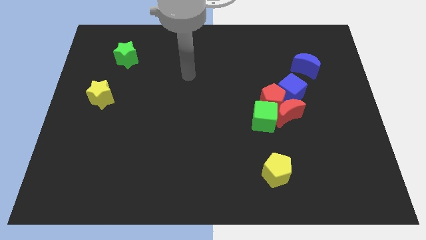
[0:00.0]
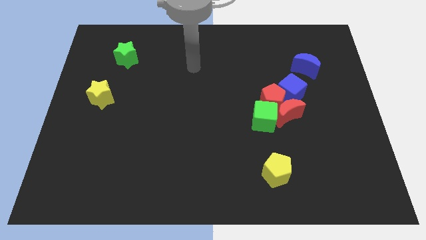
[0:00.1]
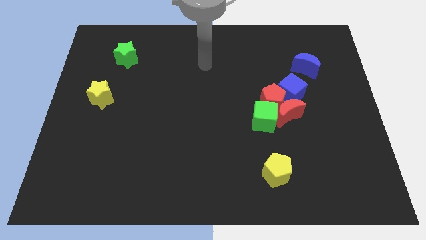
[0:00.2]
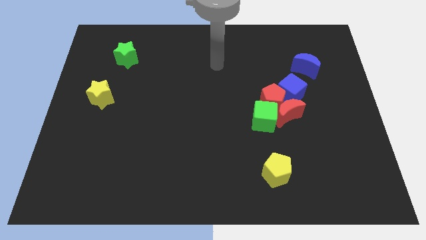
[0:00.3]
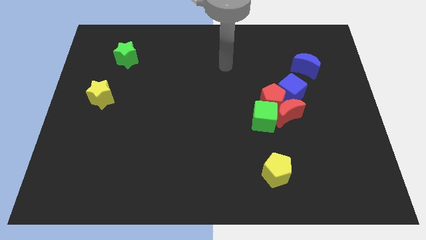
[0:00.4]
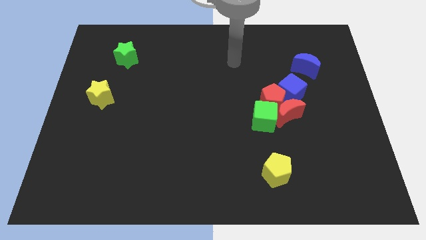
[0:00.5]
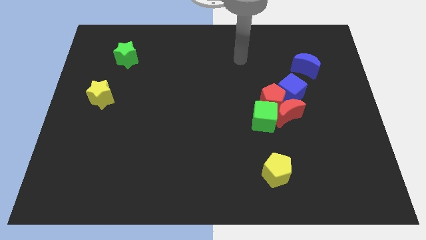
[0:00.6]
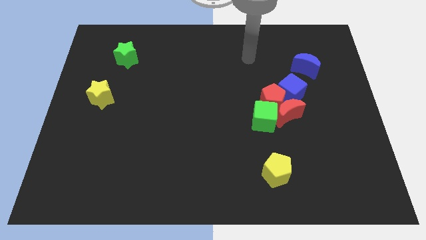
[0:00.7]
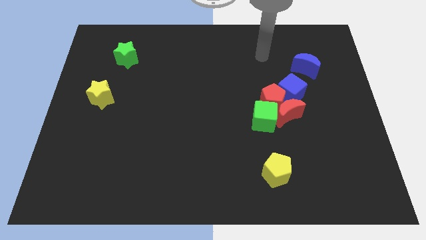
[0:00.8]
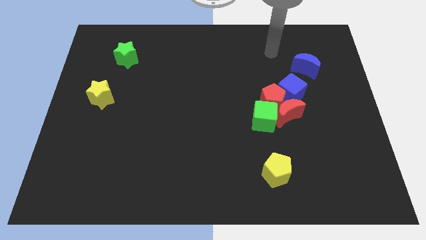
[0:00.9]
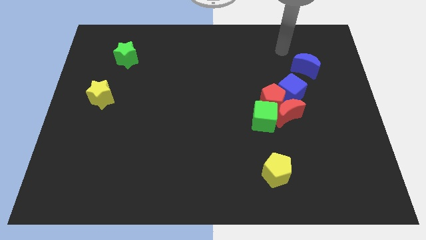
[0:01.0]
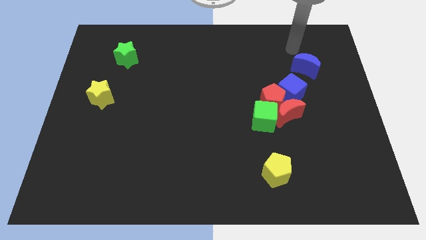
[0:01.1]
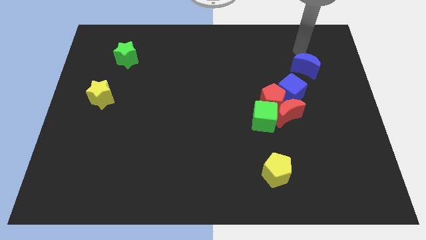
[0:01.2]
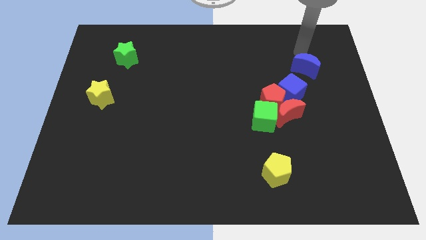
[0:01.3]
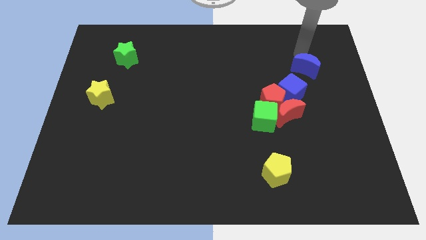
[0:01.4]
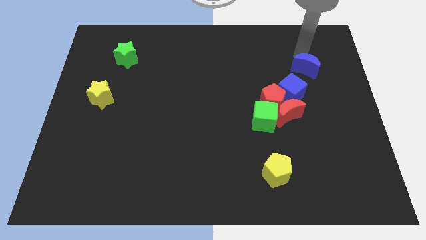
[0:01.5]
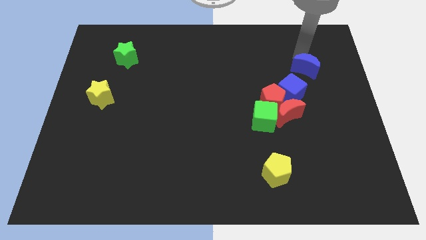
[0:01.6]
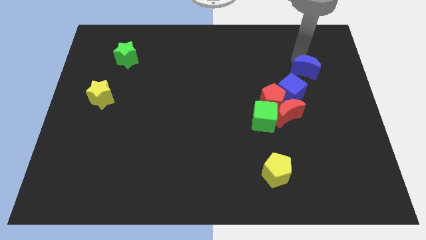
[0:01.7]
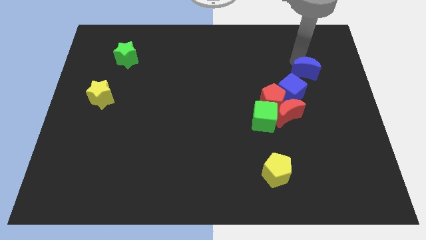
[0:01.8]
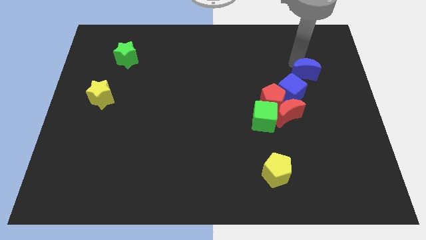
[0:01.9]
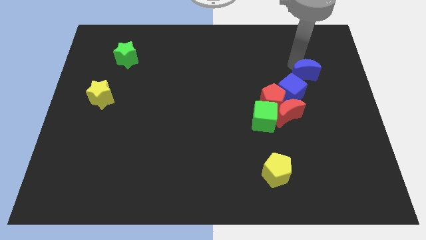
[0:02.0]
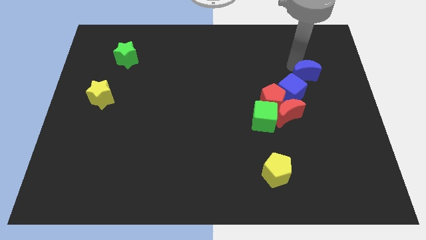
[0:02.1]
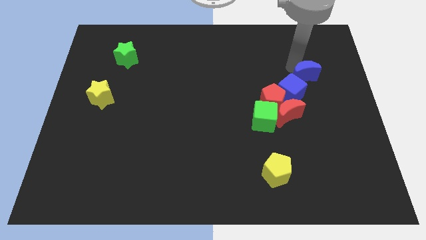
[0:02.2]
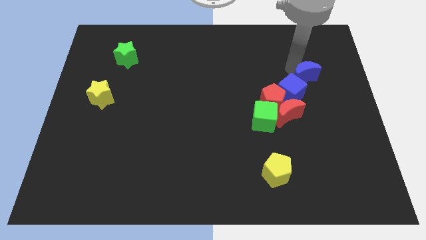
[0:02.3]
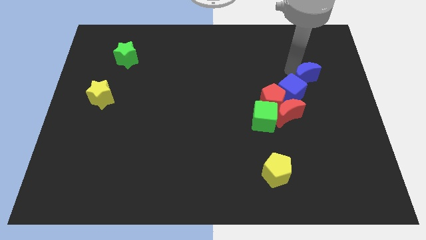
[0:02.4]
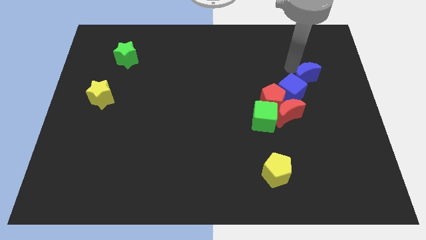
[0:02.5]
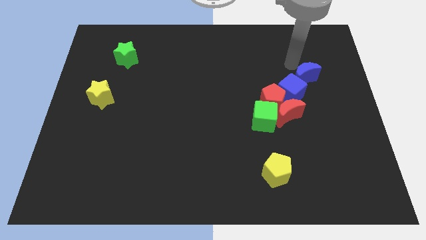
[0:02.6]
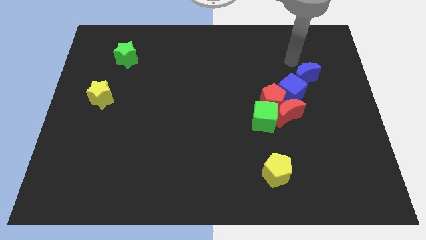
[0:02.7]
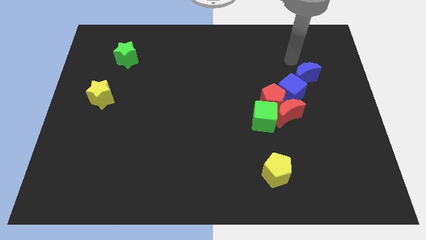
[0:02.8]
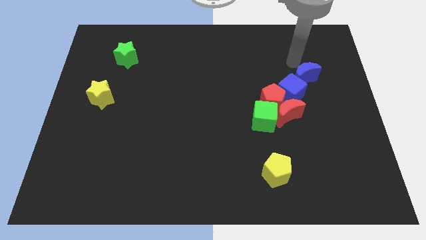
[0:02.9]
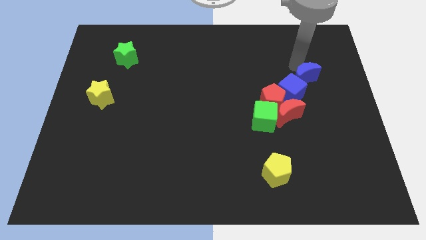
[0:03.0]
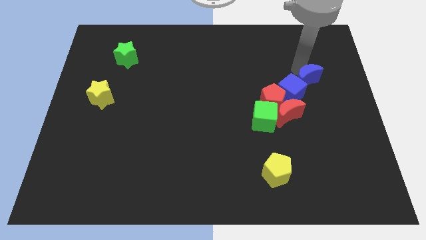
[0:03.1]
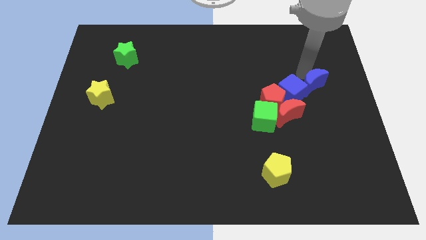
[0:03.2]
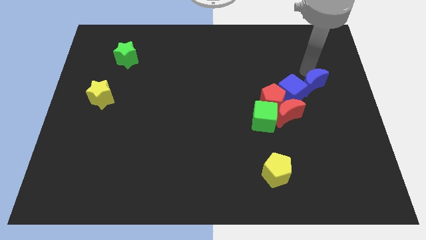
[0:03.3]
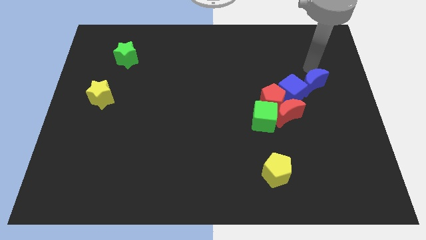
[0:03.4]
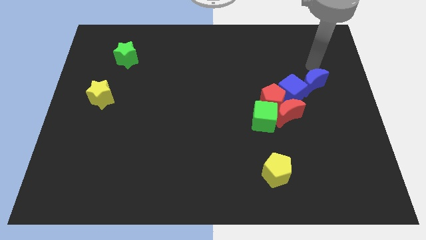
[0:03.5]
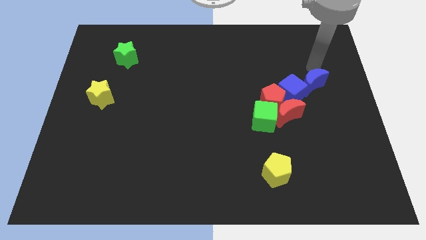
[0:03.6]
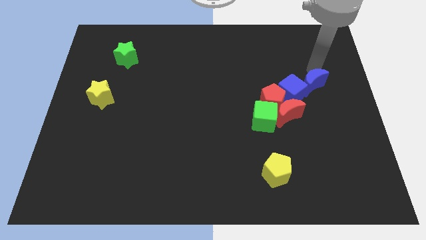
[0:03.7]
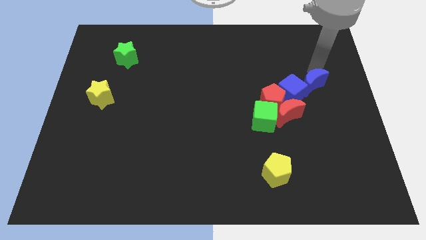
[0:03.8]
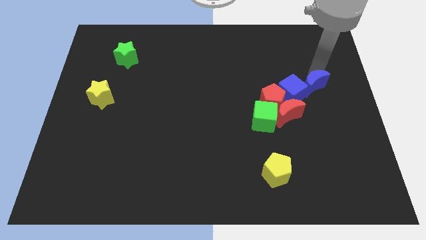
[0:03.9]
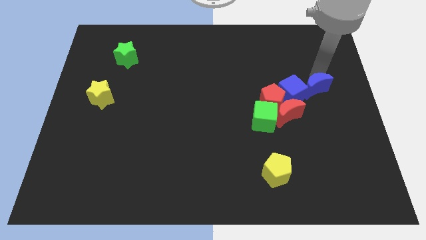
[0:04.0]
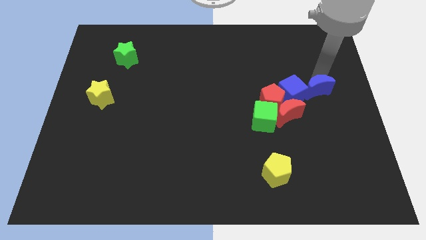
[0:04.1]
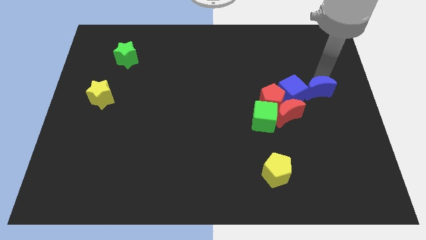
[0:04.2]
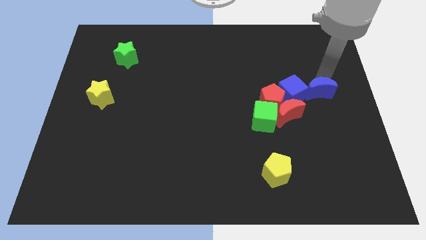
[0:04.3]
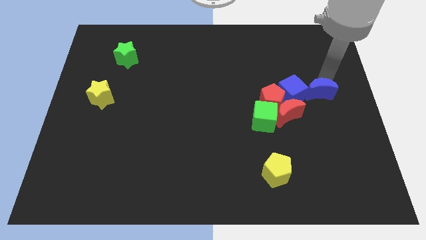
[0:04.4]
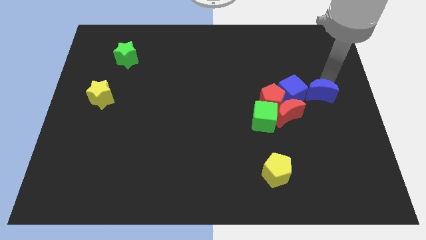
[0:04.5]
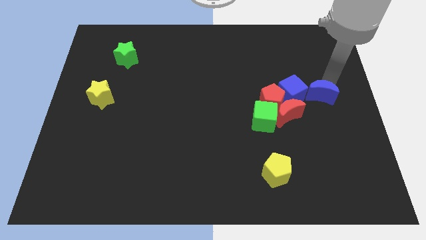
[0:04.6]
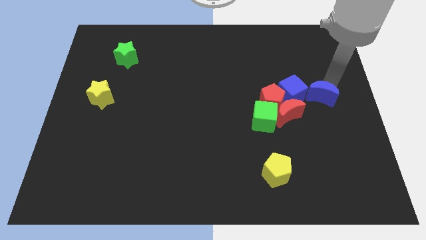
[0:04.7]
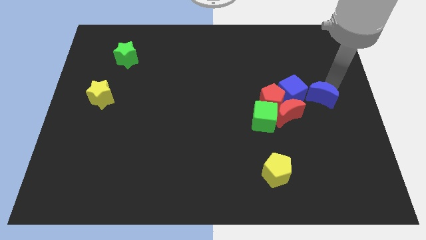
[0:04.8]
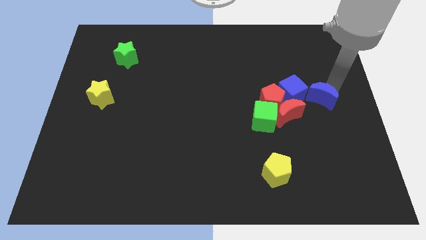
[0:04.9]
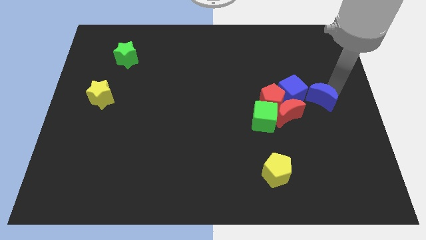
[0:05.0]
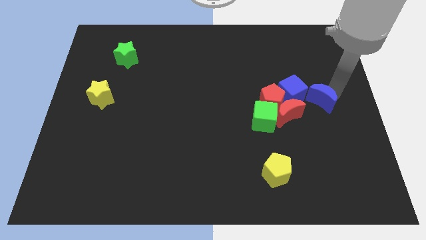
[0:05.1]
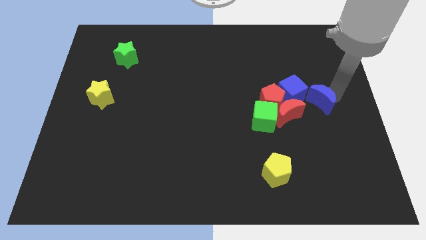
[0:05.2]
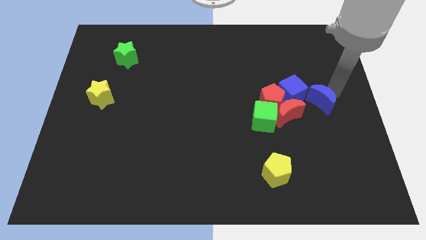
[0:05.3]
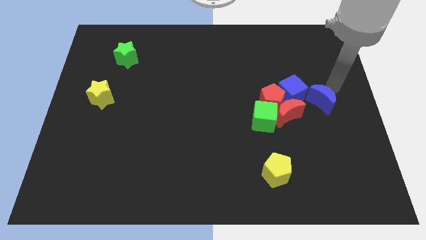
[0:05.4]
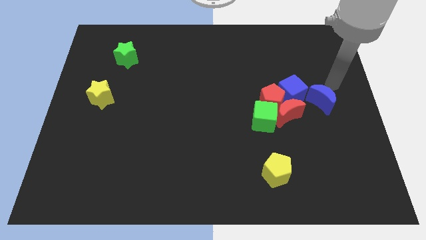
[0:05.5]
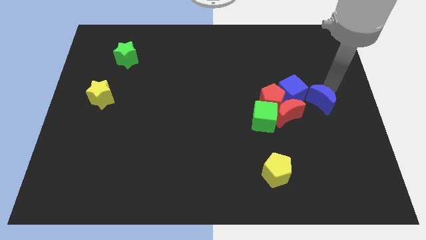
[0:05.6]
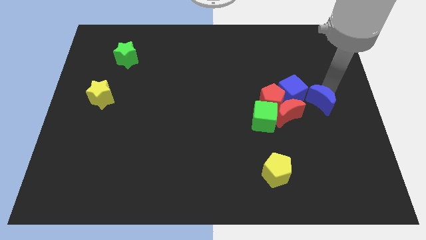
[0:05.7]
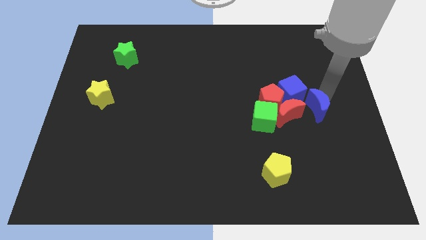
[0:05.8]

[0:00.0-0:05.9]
push the blue moon to the right side of the green cube

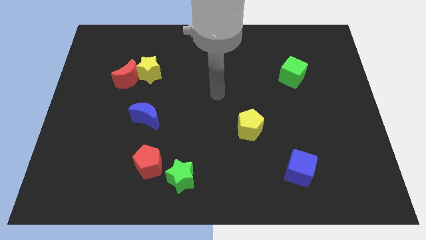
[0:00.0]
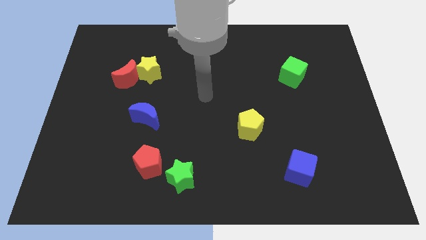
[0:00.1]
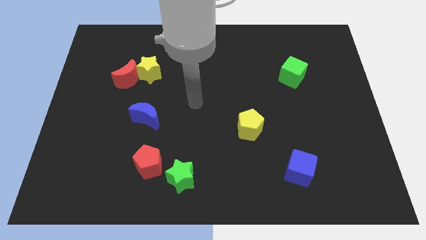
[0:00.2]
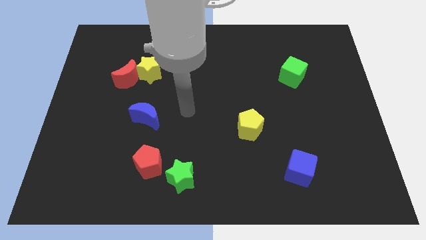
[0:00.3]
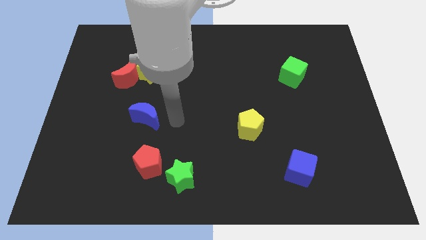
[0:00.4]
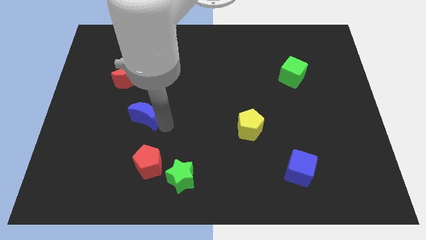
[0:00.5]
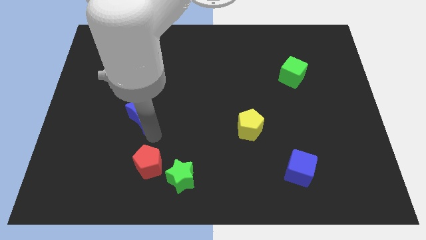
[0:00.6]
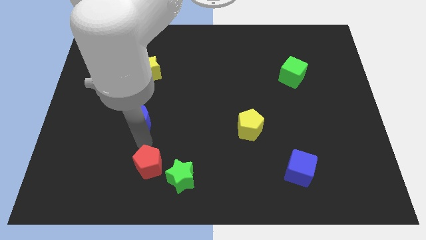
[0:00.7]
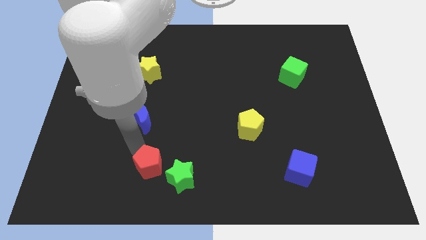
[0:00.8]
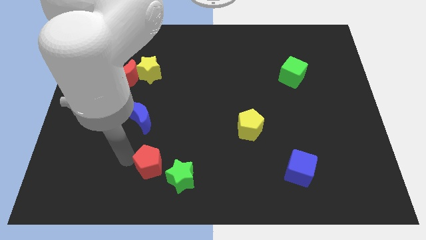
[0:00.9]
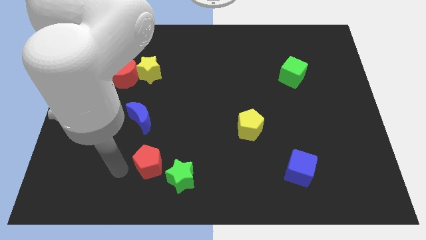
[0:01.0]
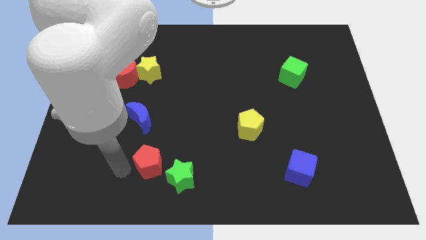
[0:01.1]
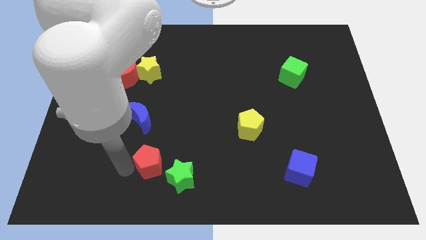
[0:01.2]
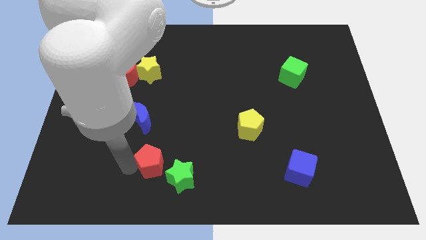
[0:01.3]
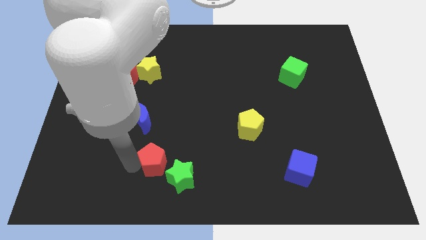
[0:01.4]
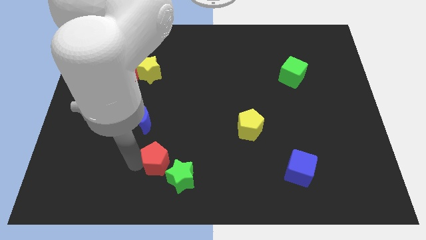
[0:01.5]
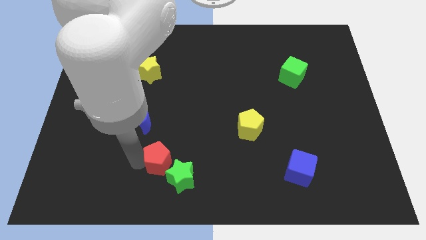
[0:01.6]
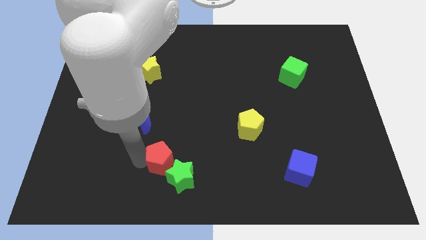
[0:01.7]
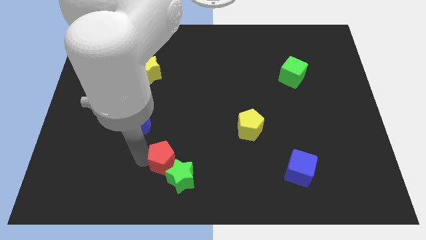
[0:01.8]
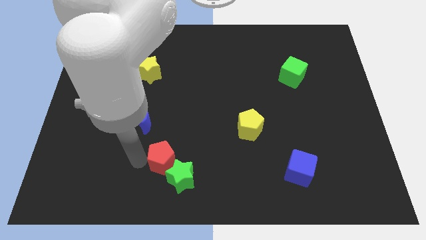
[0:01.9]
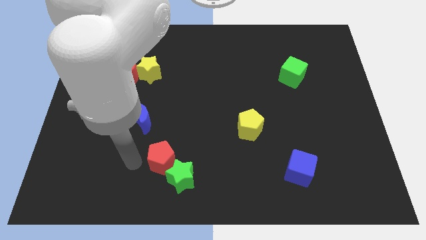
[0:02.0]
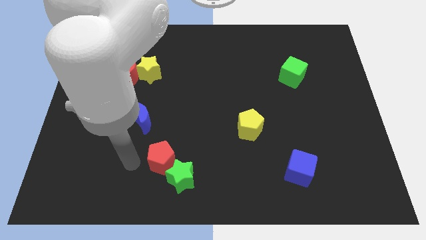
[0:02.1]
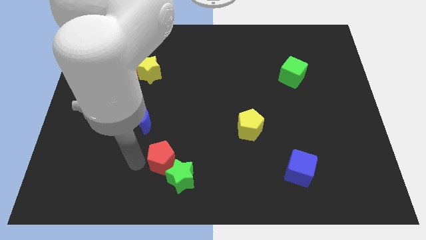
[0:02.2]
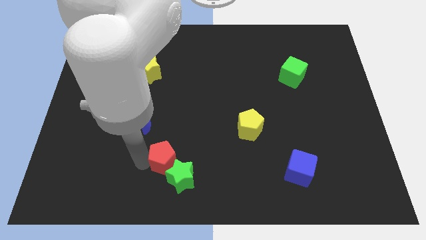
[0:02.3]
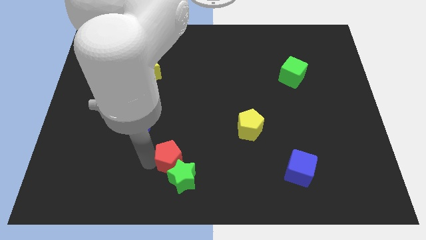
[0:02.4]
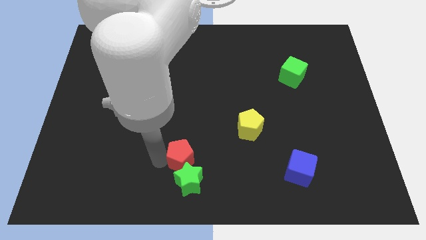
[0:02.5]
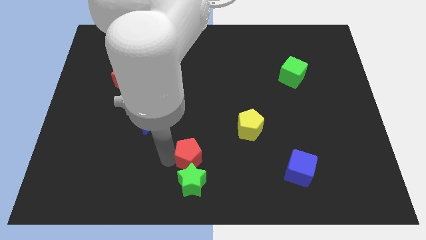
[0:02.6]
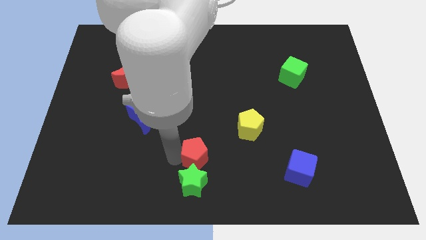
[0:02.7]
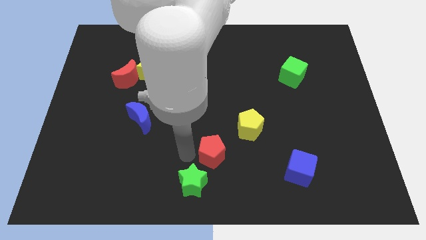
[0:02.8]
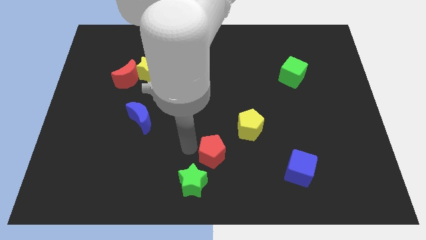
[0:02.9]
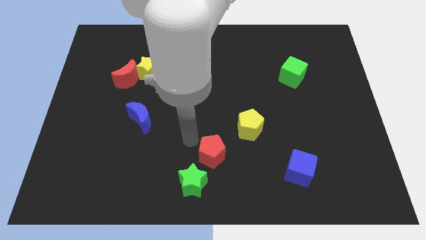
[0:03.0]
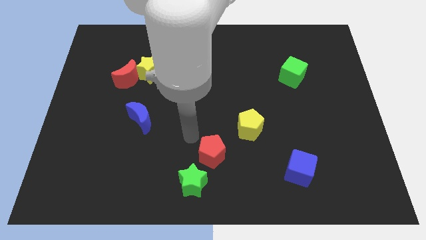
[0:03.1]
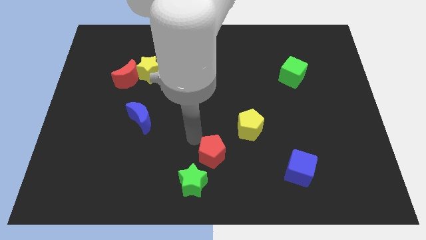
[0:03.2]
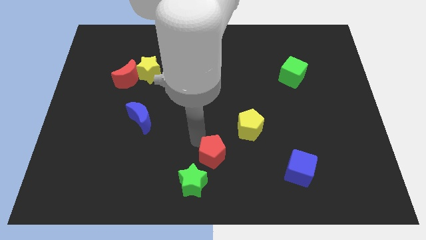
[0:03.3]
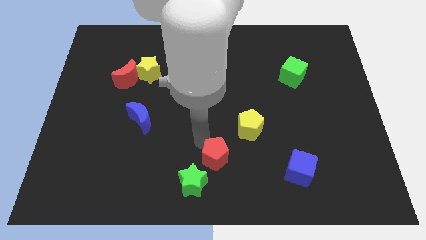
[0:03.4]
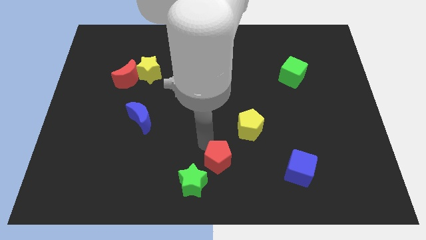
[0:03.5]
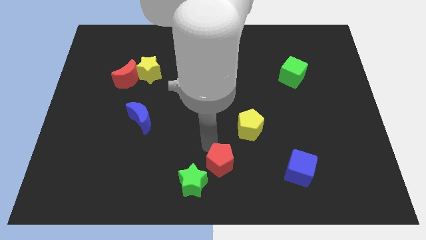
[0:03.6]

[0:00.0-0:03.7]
push the red pentagon to the right side of the green star
